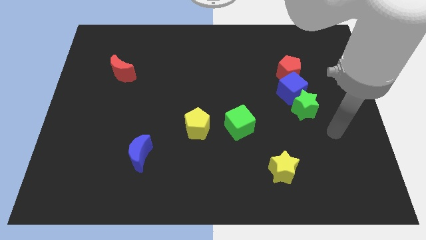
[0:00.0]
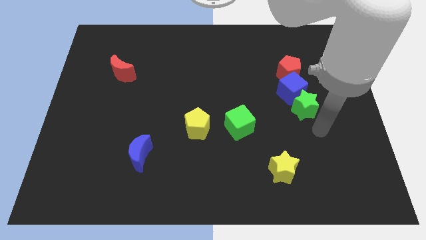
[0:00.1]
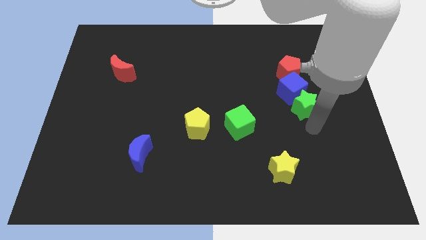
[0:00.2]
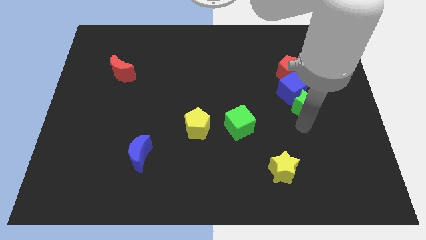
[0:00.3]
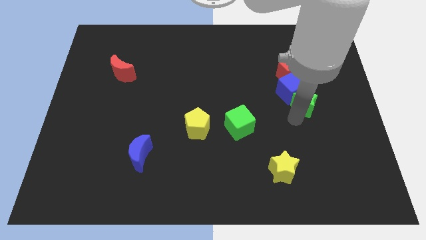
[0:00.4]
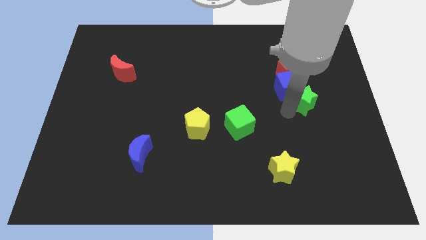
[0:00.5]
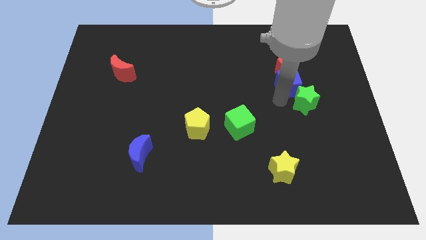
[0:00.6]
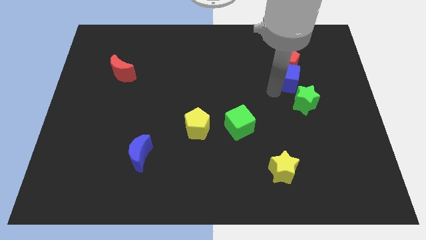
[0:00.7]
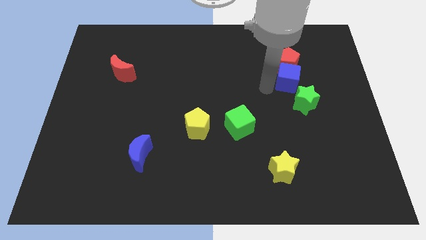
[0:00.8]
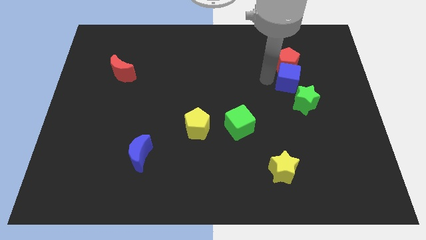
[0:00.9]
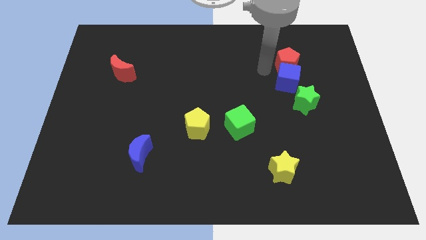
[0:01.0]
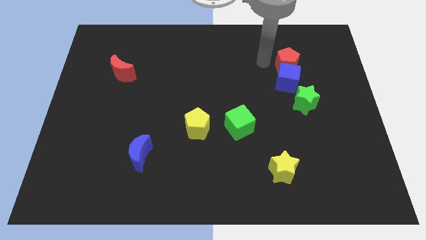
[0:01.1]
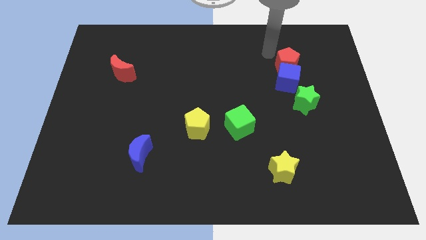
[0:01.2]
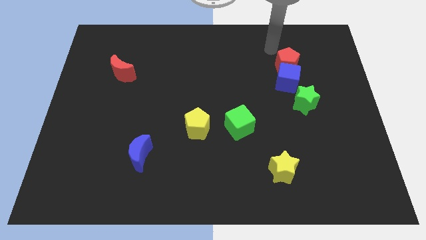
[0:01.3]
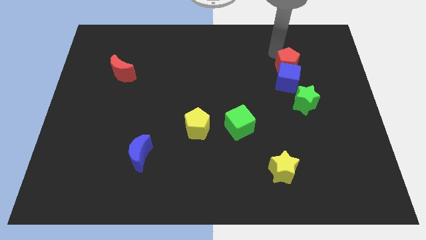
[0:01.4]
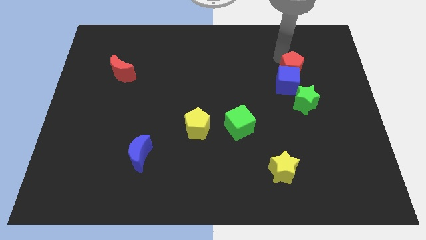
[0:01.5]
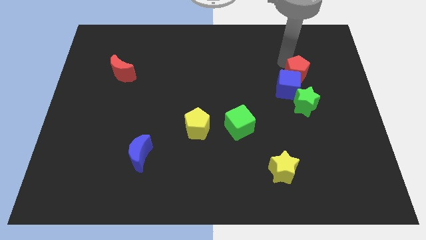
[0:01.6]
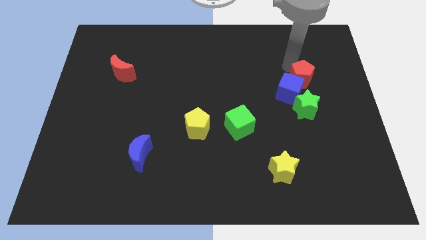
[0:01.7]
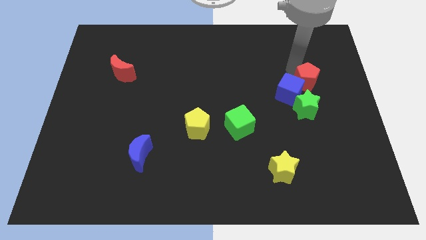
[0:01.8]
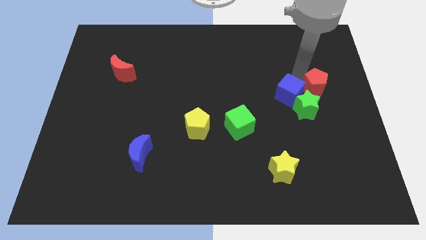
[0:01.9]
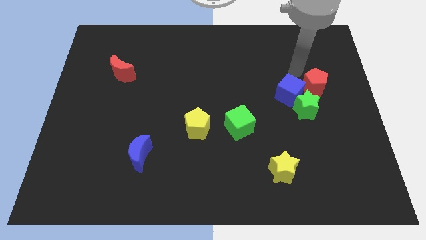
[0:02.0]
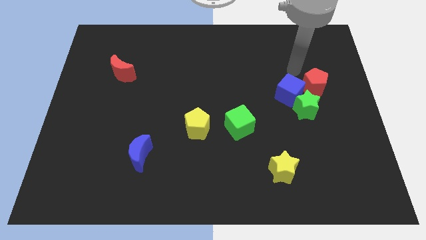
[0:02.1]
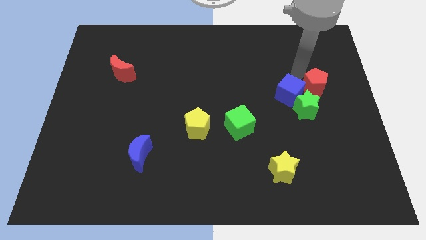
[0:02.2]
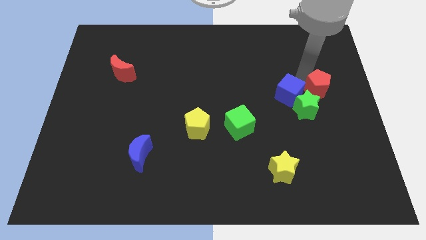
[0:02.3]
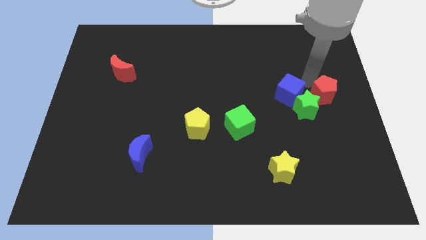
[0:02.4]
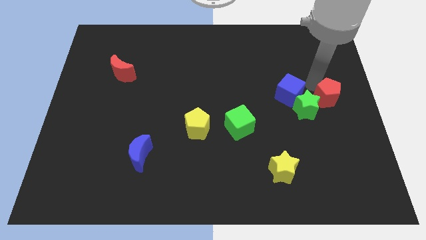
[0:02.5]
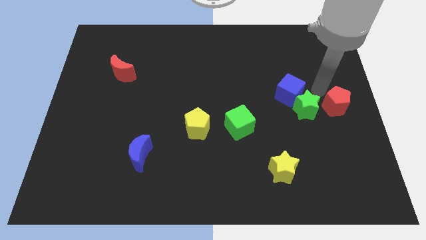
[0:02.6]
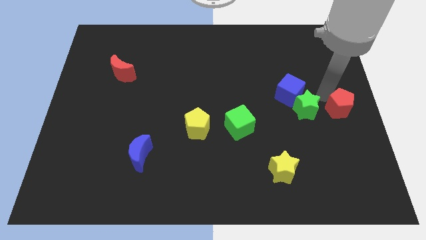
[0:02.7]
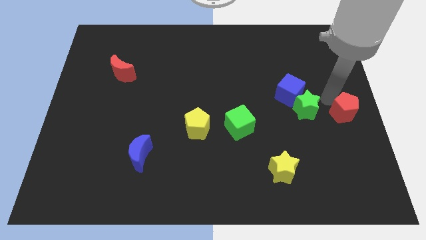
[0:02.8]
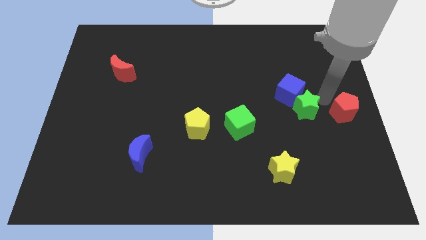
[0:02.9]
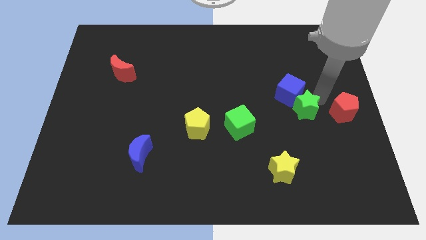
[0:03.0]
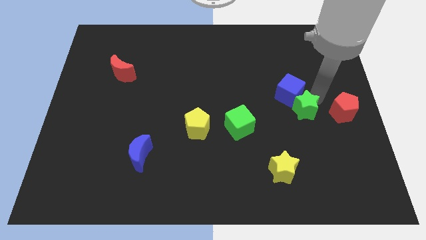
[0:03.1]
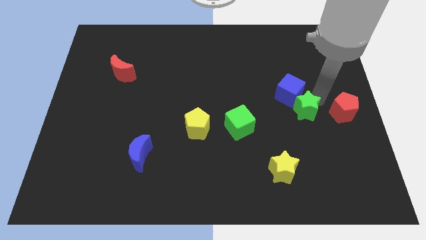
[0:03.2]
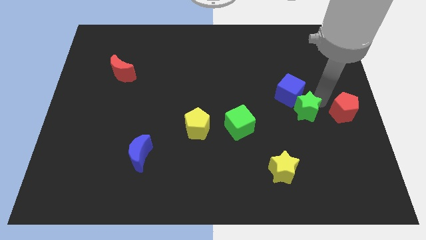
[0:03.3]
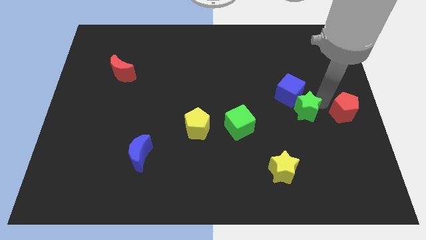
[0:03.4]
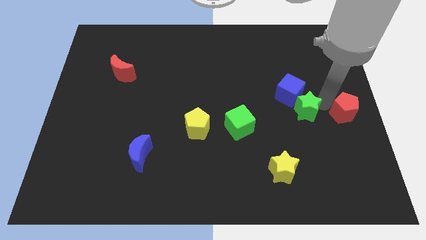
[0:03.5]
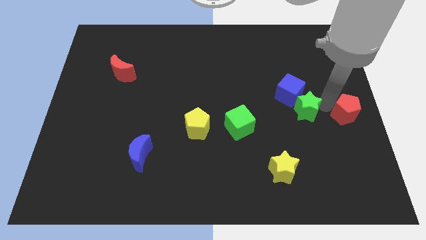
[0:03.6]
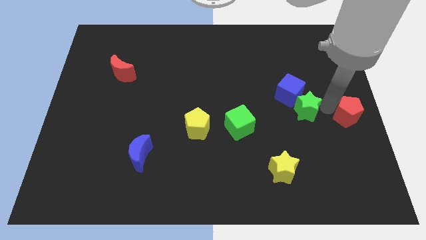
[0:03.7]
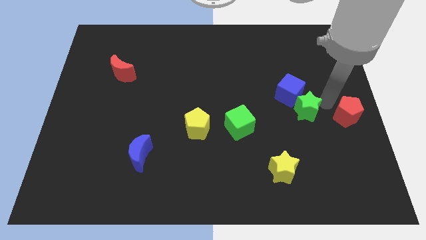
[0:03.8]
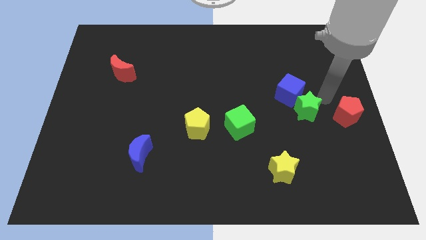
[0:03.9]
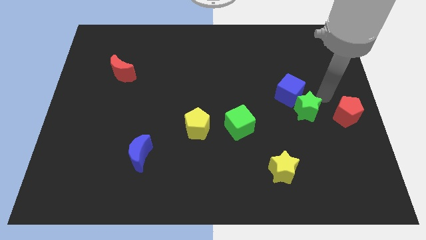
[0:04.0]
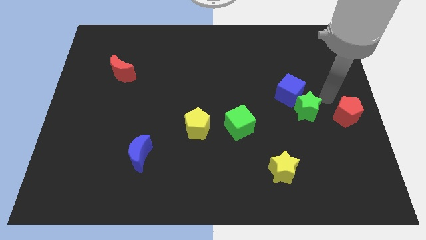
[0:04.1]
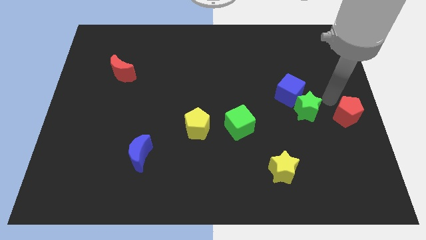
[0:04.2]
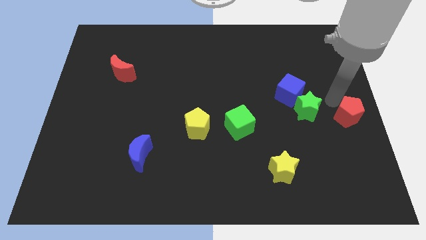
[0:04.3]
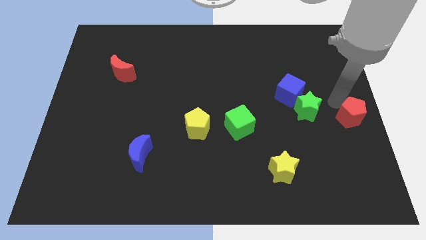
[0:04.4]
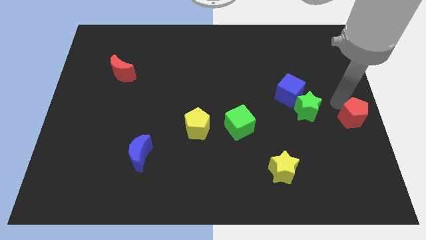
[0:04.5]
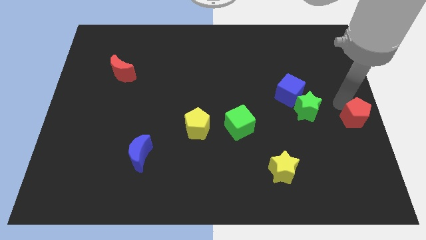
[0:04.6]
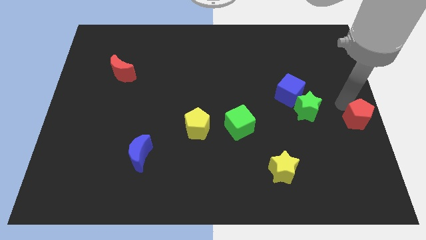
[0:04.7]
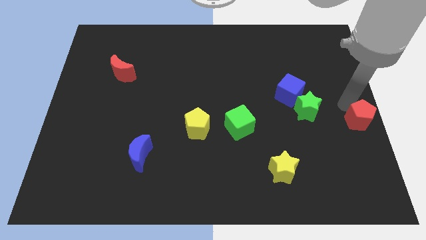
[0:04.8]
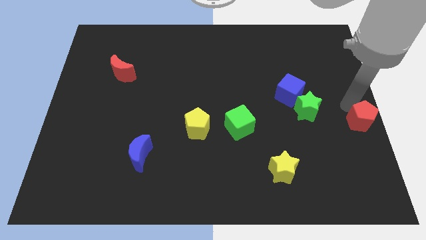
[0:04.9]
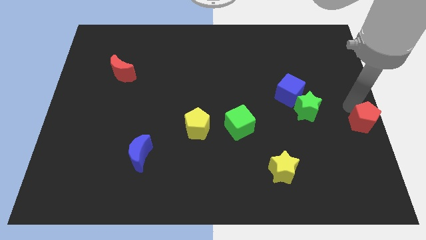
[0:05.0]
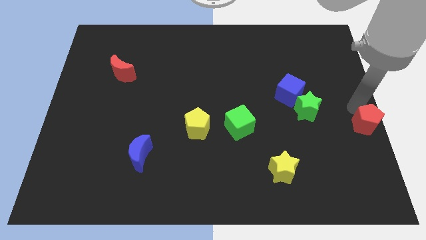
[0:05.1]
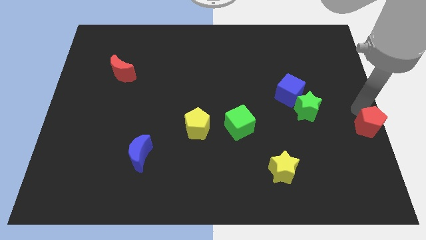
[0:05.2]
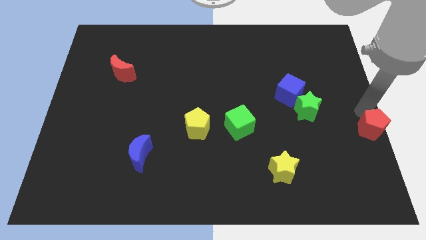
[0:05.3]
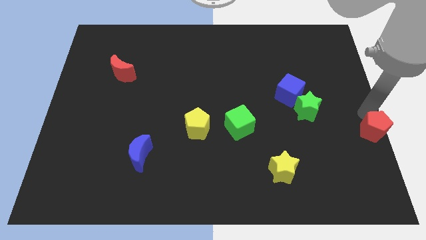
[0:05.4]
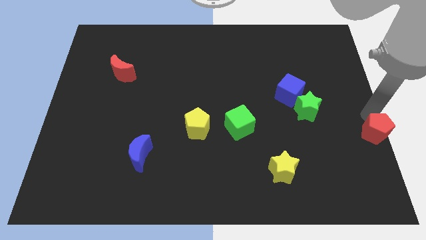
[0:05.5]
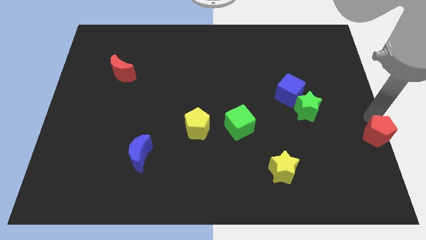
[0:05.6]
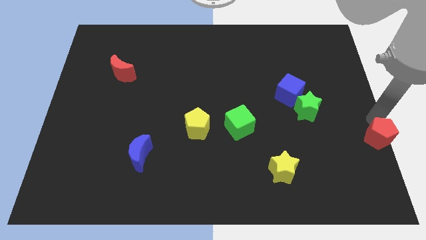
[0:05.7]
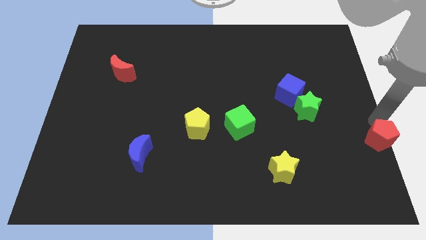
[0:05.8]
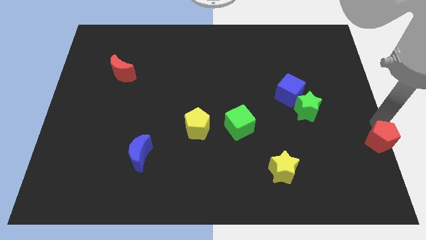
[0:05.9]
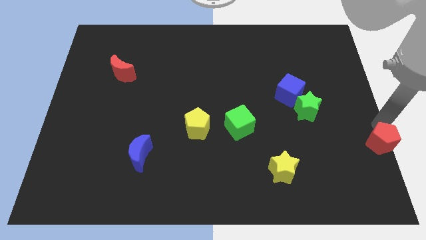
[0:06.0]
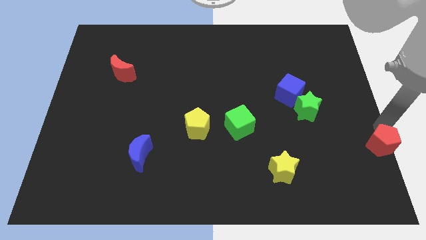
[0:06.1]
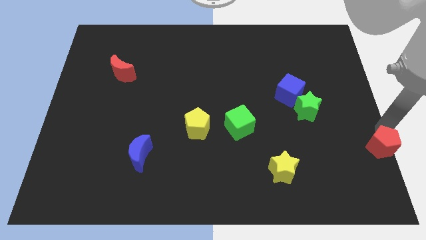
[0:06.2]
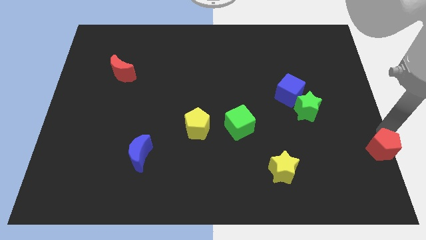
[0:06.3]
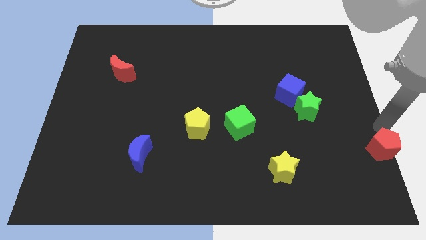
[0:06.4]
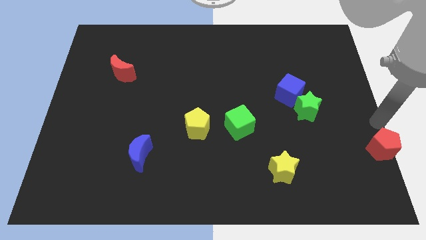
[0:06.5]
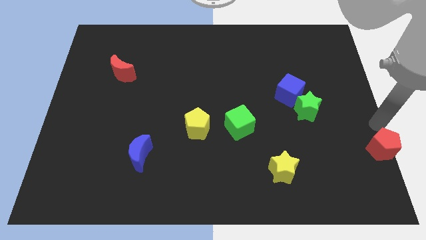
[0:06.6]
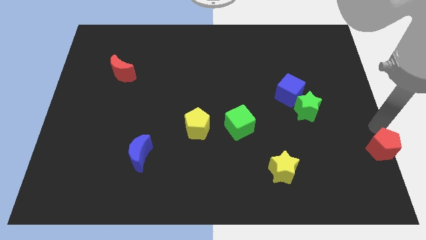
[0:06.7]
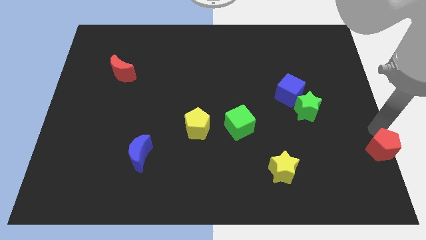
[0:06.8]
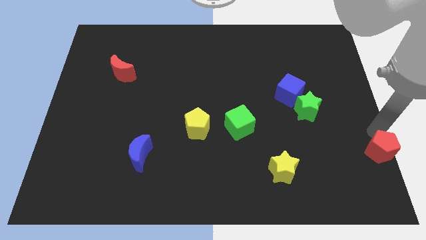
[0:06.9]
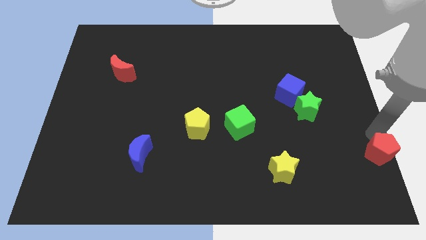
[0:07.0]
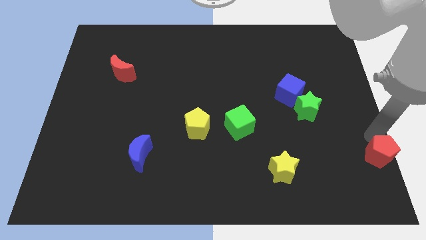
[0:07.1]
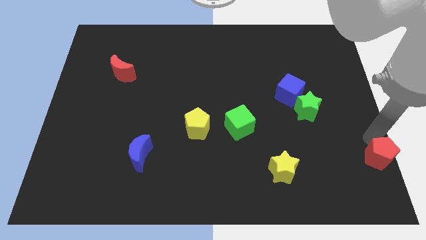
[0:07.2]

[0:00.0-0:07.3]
move the red pentagon to the bottom right of the board
